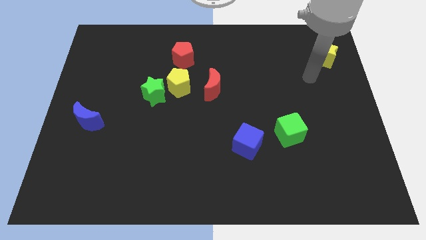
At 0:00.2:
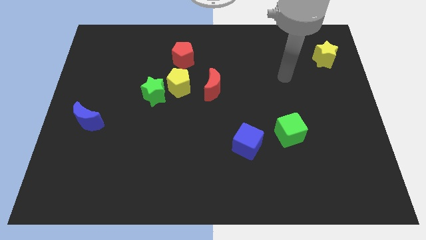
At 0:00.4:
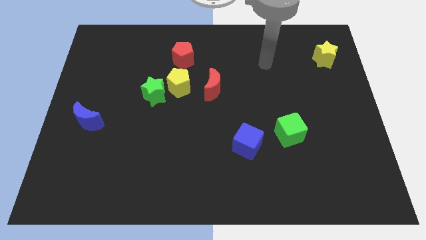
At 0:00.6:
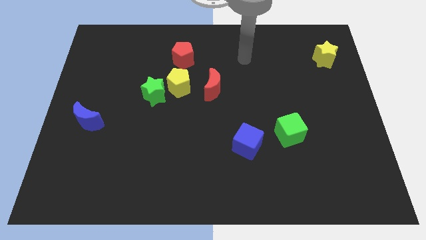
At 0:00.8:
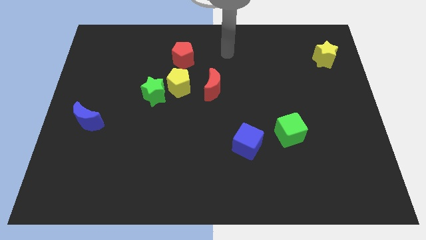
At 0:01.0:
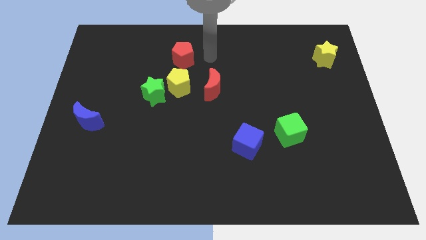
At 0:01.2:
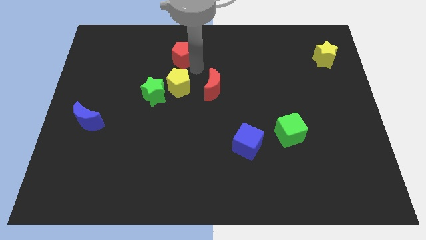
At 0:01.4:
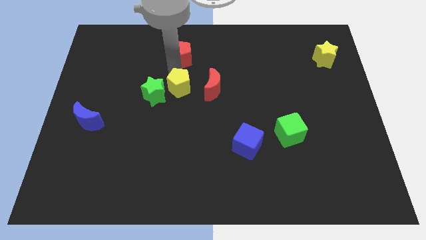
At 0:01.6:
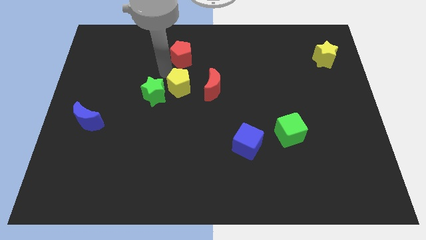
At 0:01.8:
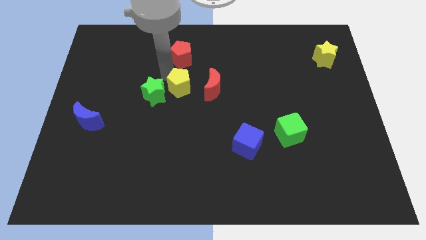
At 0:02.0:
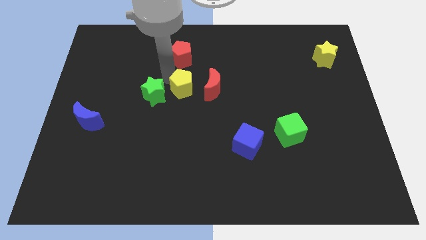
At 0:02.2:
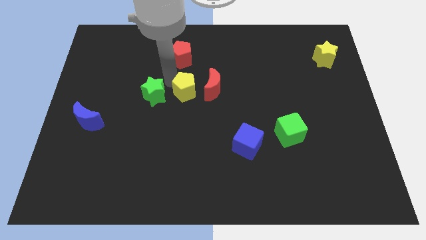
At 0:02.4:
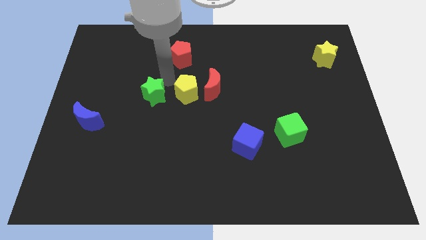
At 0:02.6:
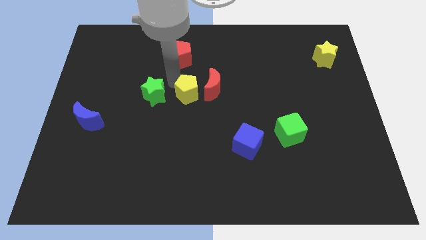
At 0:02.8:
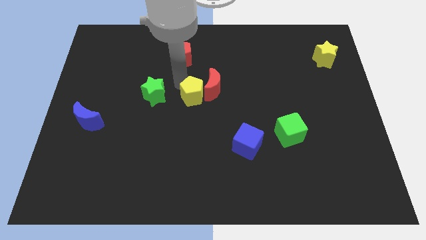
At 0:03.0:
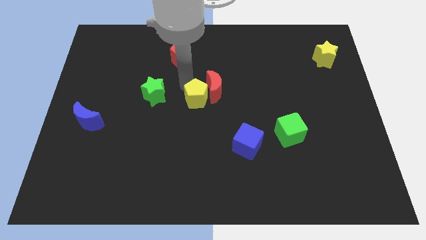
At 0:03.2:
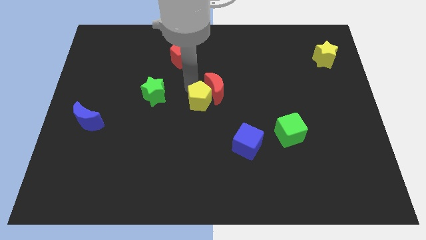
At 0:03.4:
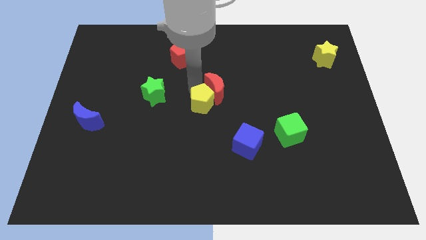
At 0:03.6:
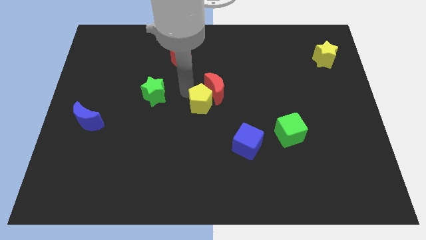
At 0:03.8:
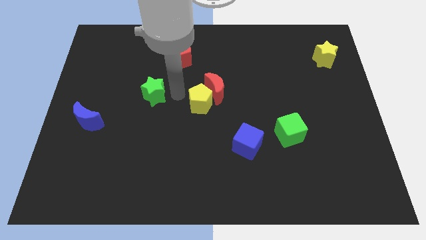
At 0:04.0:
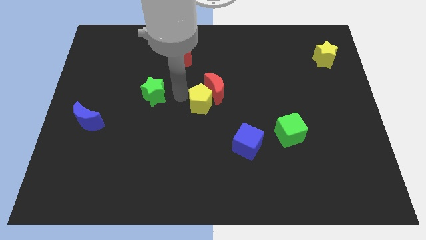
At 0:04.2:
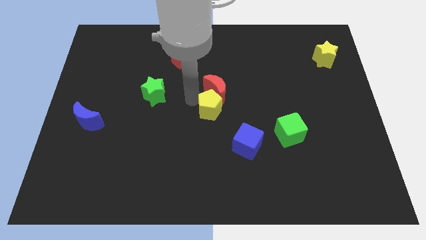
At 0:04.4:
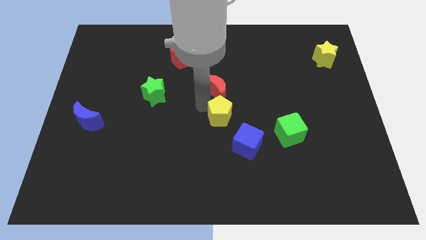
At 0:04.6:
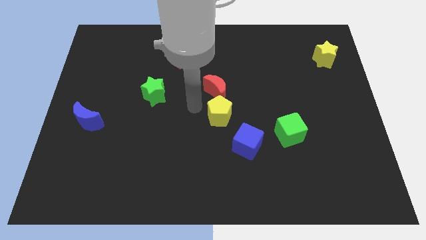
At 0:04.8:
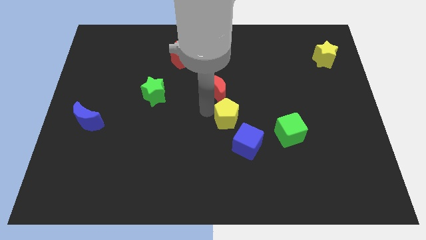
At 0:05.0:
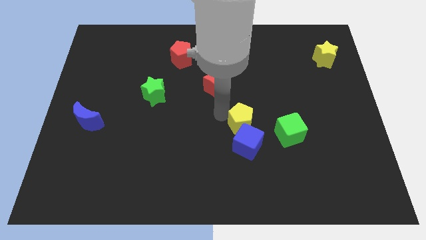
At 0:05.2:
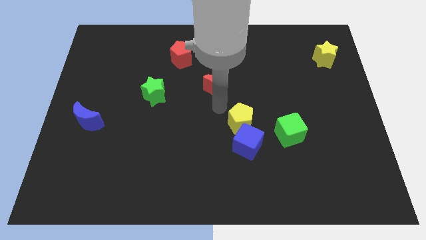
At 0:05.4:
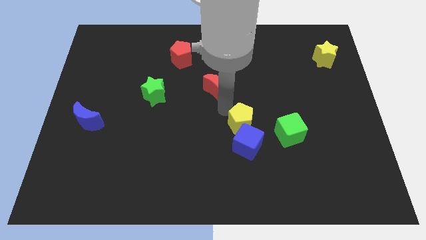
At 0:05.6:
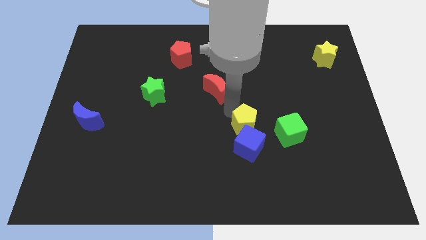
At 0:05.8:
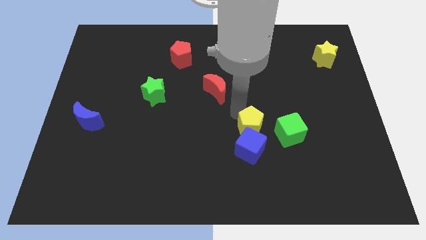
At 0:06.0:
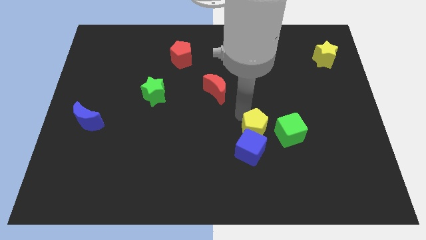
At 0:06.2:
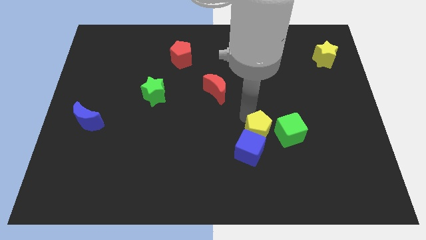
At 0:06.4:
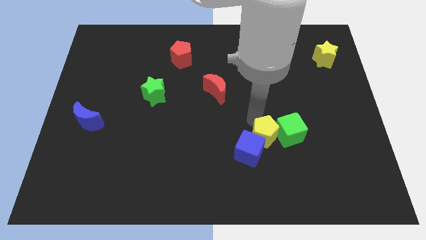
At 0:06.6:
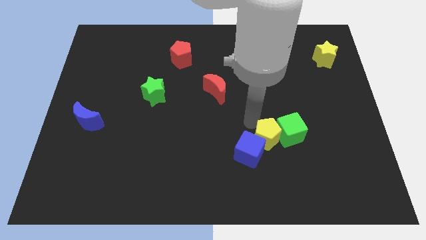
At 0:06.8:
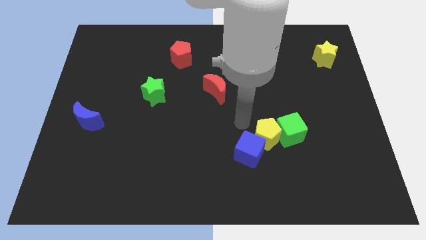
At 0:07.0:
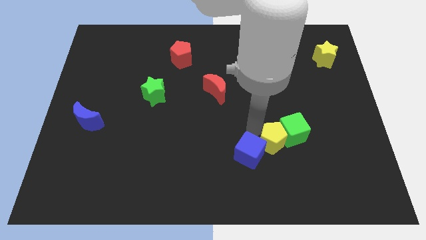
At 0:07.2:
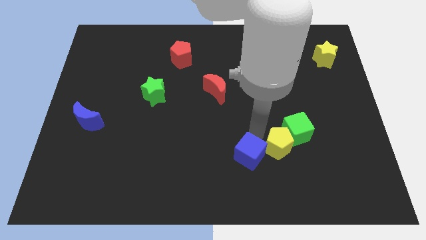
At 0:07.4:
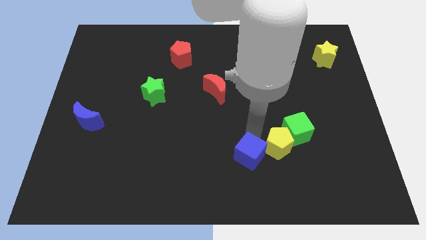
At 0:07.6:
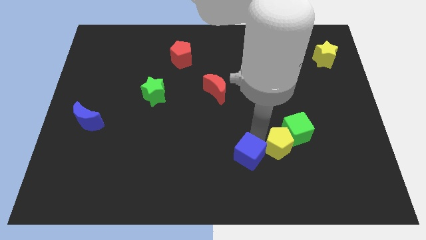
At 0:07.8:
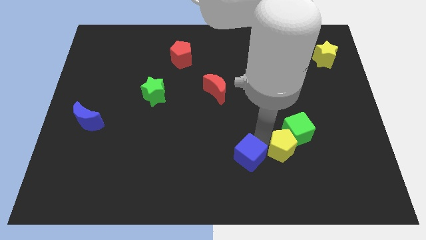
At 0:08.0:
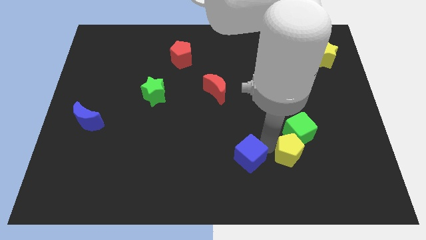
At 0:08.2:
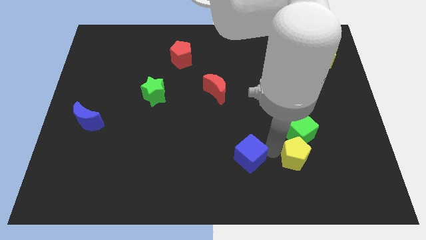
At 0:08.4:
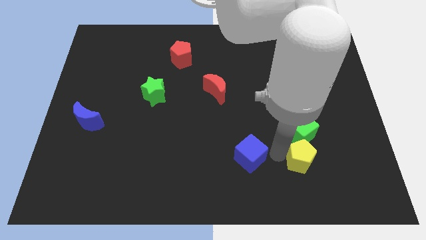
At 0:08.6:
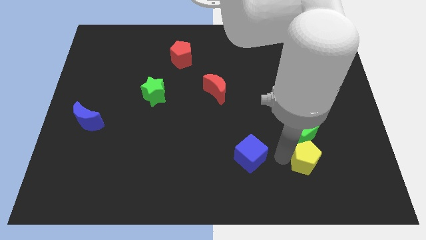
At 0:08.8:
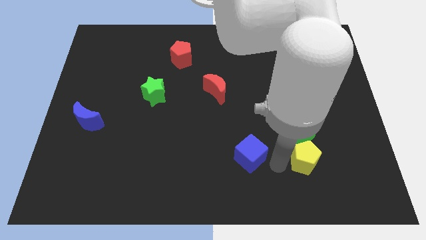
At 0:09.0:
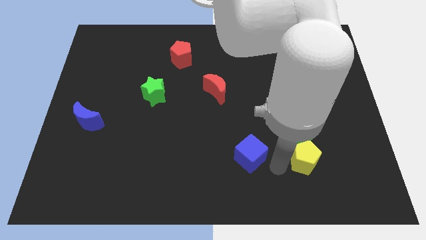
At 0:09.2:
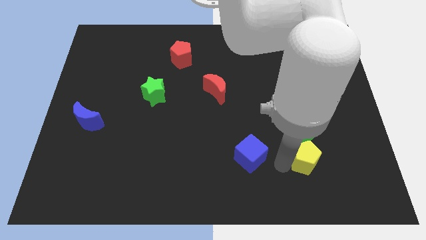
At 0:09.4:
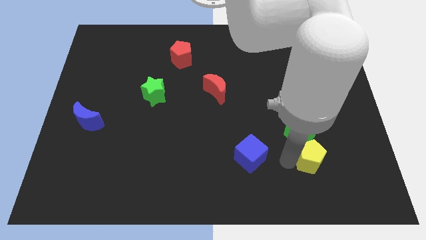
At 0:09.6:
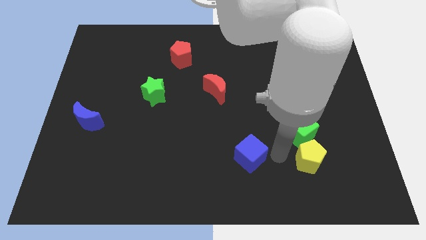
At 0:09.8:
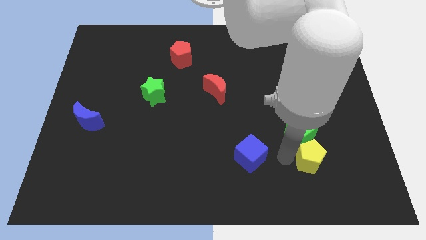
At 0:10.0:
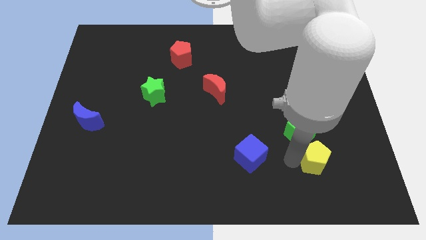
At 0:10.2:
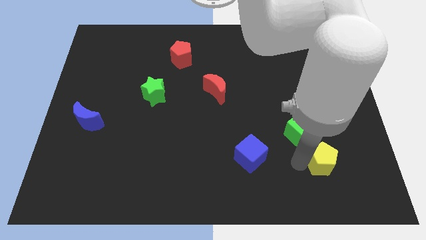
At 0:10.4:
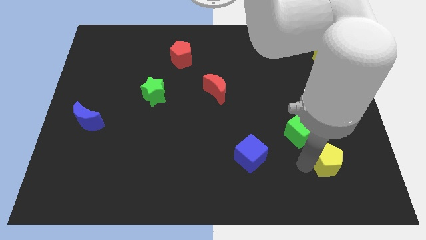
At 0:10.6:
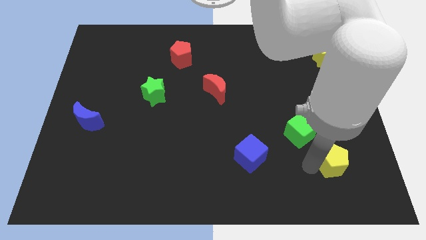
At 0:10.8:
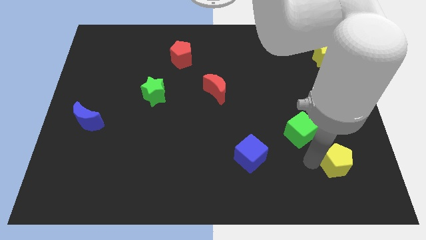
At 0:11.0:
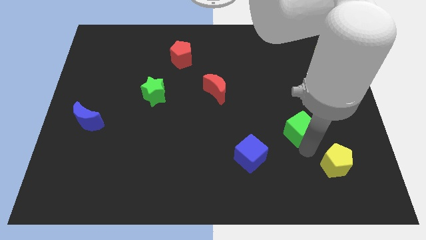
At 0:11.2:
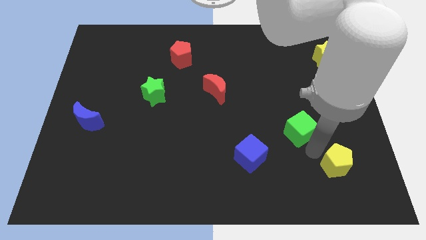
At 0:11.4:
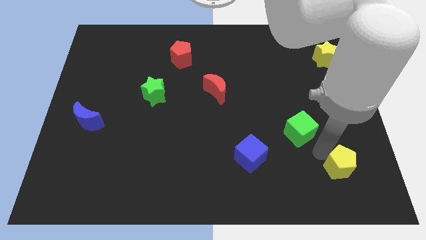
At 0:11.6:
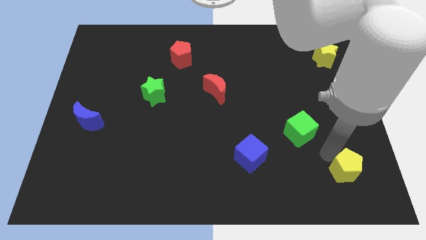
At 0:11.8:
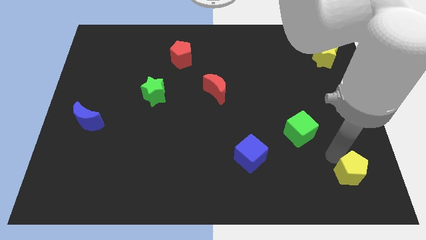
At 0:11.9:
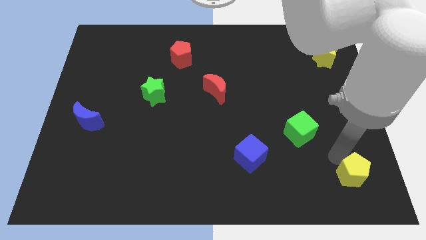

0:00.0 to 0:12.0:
slide the yellow pentagon to the bottom right of the board

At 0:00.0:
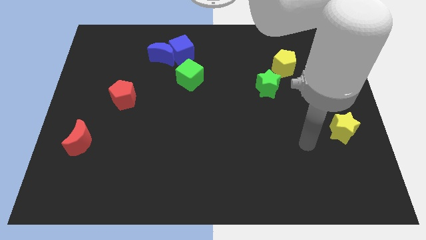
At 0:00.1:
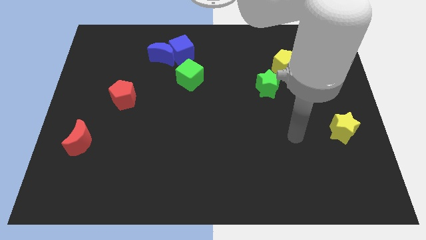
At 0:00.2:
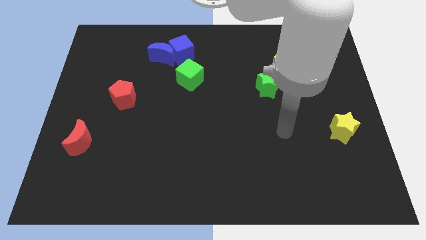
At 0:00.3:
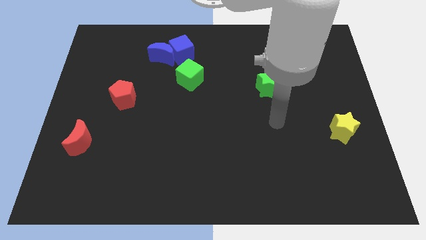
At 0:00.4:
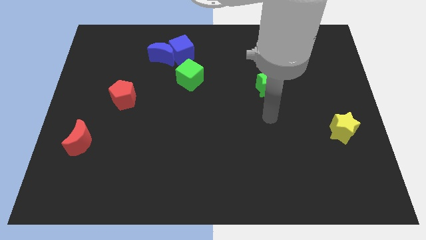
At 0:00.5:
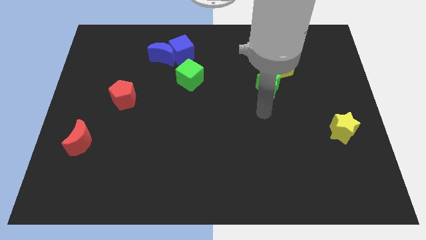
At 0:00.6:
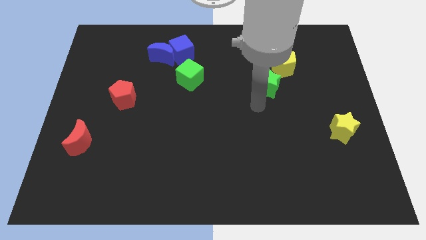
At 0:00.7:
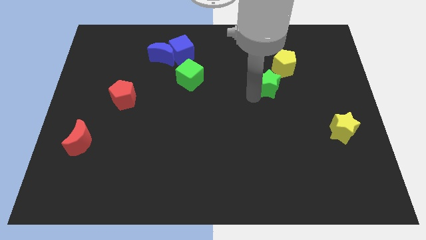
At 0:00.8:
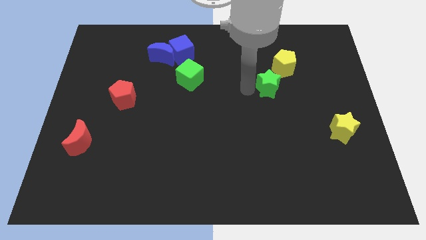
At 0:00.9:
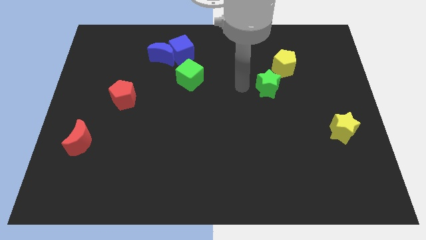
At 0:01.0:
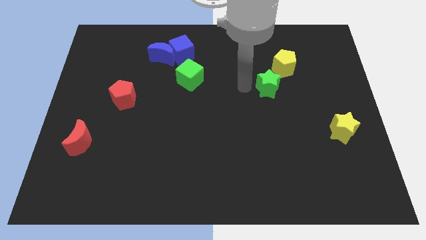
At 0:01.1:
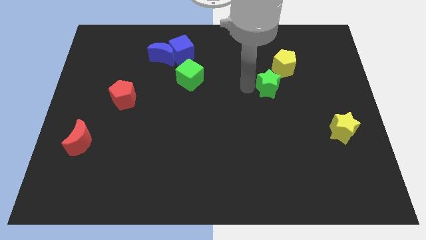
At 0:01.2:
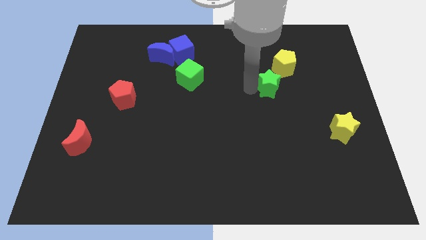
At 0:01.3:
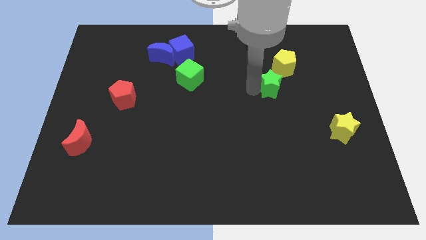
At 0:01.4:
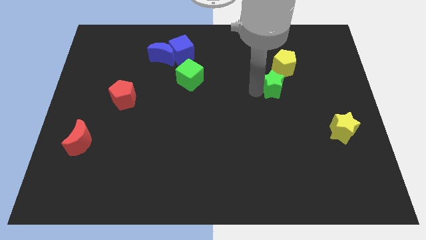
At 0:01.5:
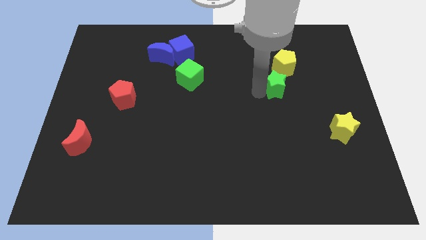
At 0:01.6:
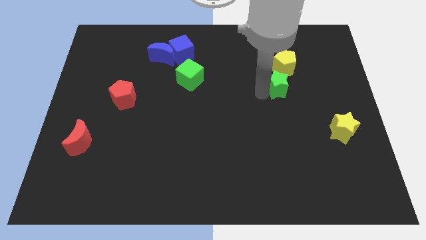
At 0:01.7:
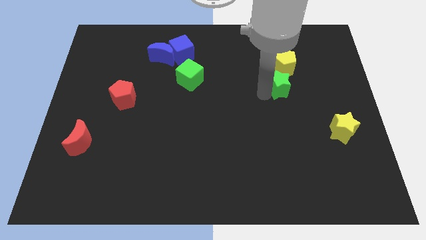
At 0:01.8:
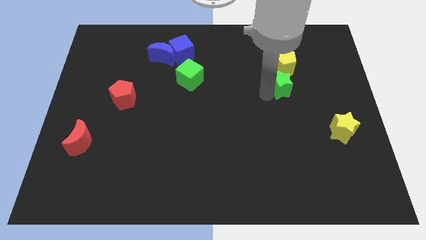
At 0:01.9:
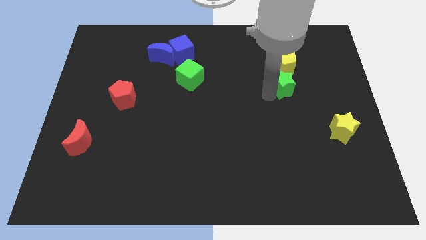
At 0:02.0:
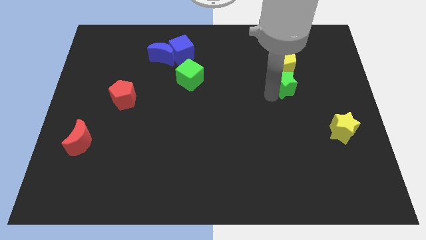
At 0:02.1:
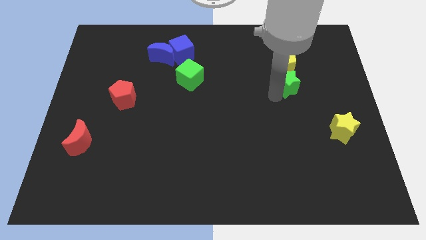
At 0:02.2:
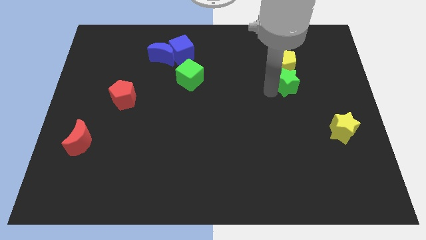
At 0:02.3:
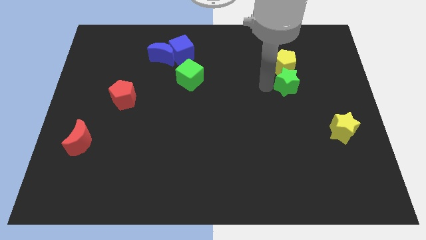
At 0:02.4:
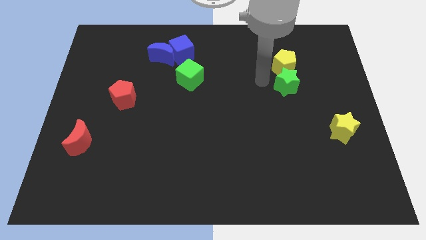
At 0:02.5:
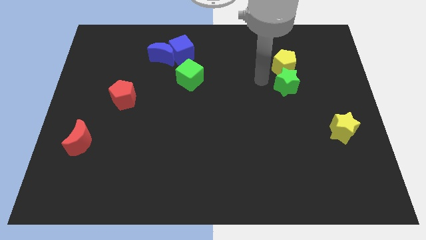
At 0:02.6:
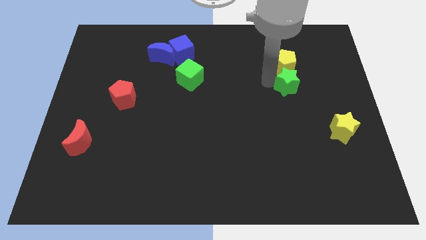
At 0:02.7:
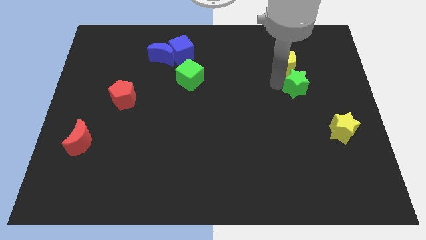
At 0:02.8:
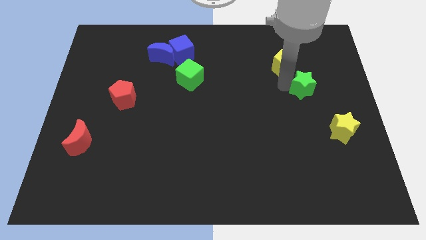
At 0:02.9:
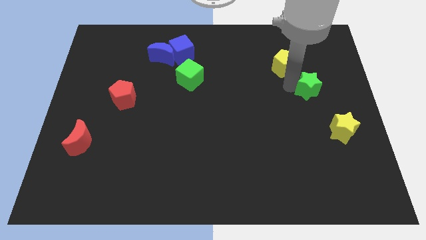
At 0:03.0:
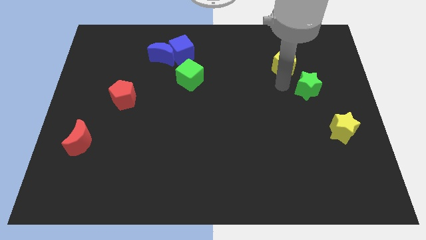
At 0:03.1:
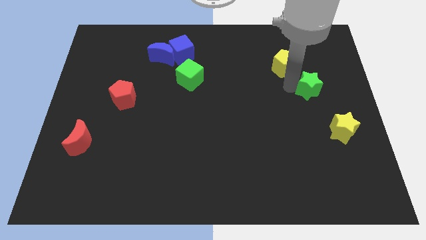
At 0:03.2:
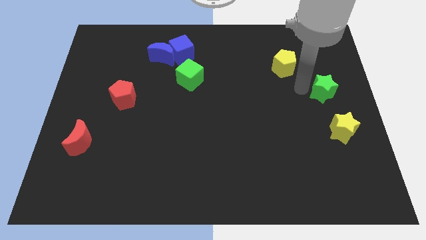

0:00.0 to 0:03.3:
slide the green star to the center right
